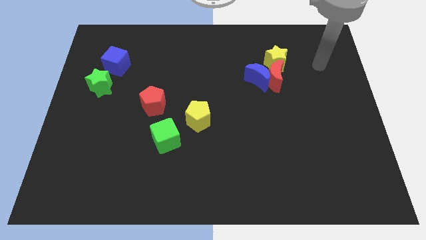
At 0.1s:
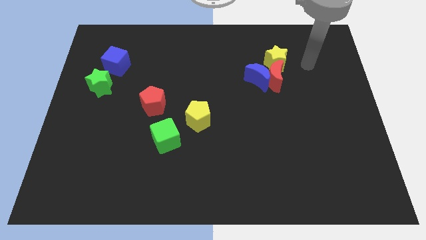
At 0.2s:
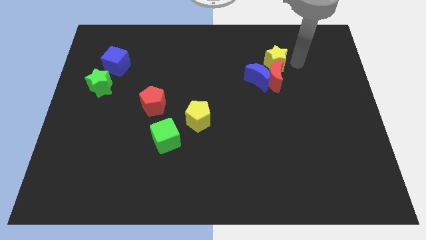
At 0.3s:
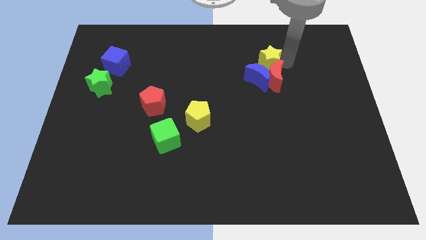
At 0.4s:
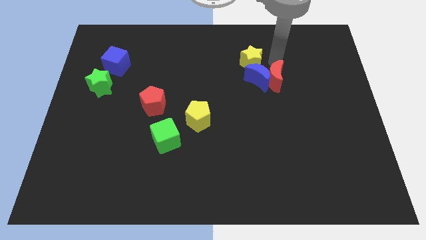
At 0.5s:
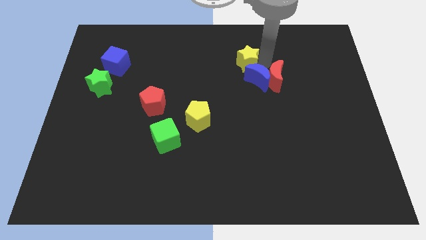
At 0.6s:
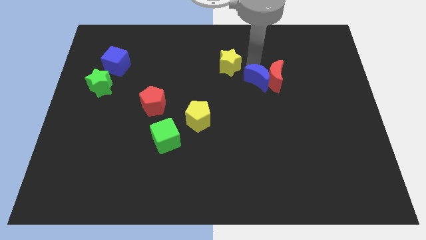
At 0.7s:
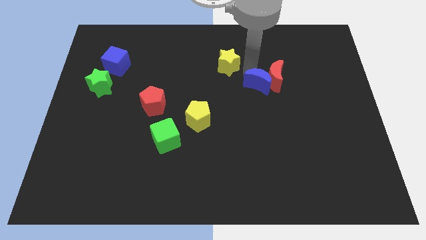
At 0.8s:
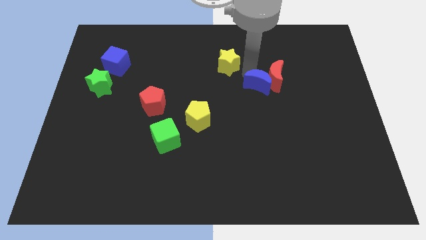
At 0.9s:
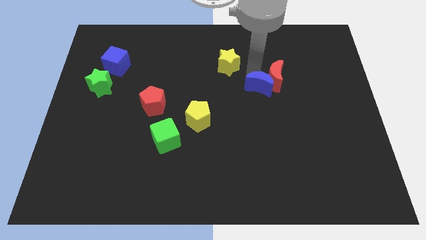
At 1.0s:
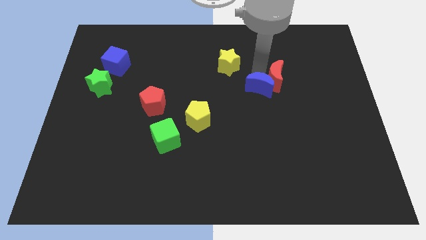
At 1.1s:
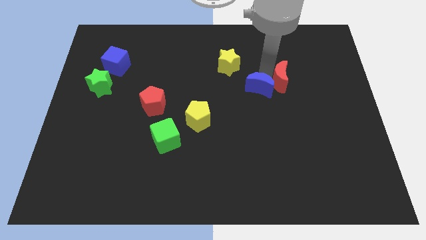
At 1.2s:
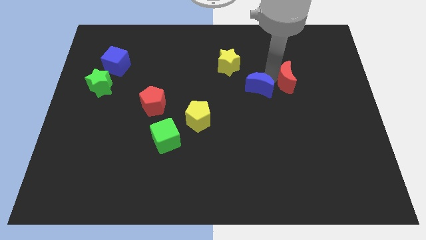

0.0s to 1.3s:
separate the red moon from the blue moon and yellow star

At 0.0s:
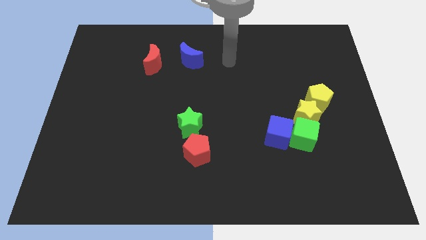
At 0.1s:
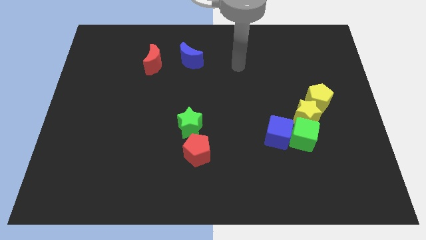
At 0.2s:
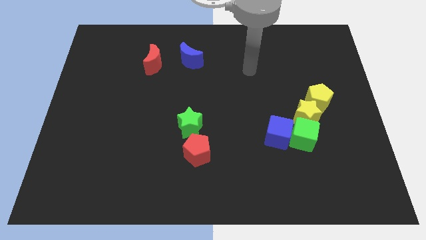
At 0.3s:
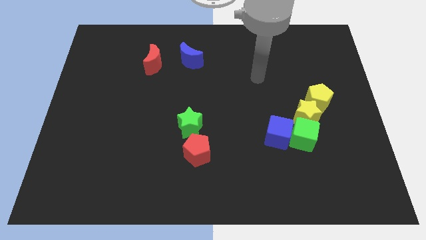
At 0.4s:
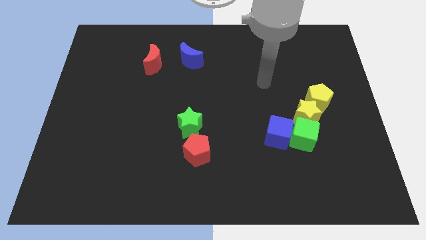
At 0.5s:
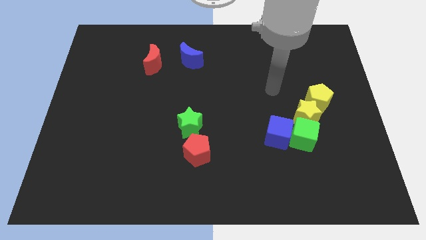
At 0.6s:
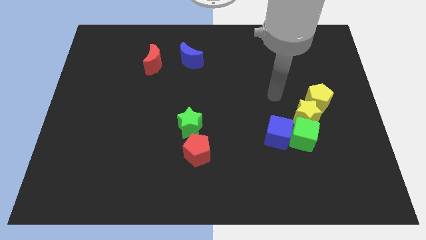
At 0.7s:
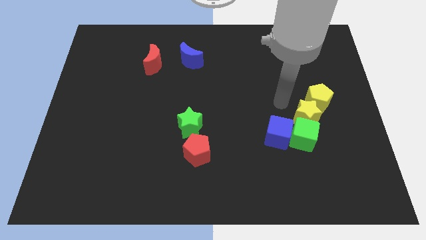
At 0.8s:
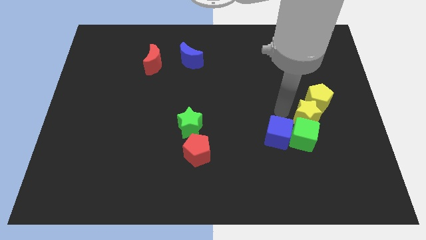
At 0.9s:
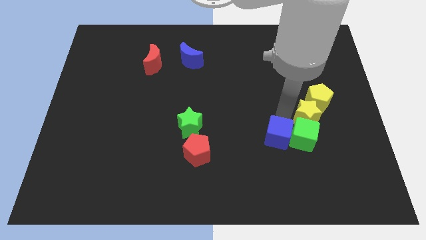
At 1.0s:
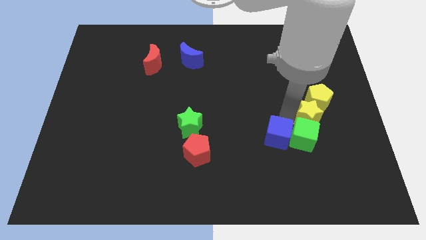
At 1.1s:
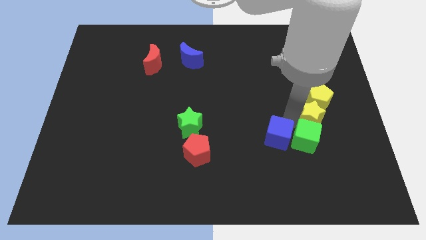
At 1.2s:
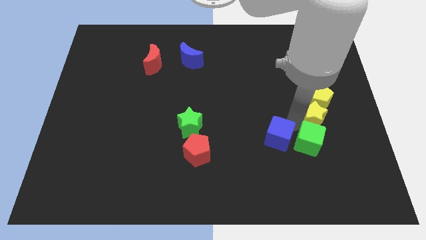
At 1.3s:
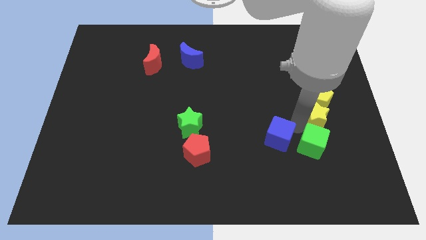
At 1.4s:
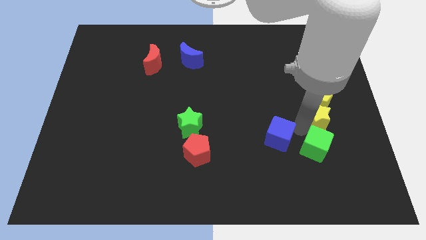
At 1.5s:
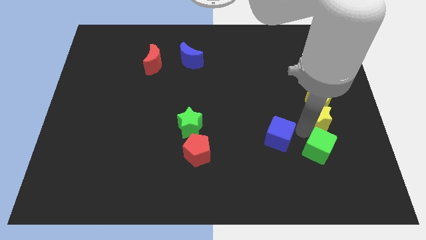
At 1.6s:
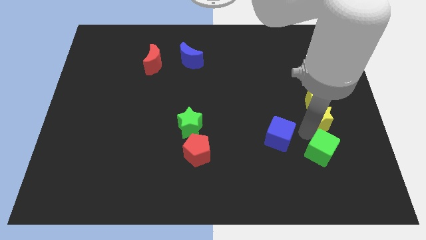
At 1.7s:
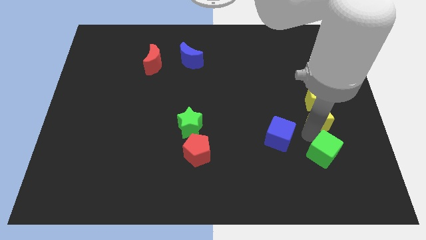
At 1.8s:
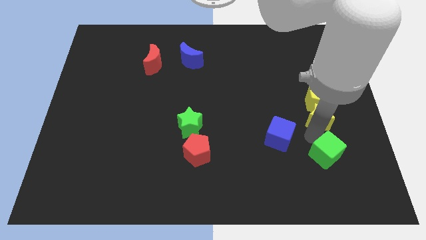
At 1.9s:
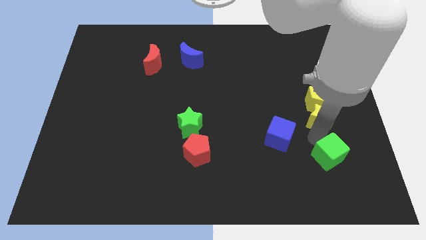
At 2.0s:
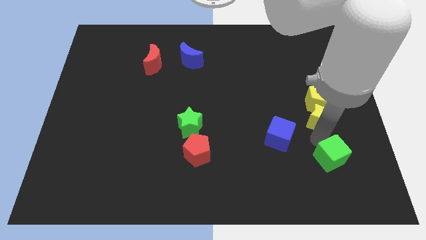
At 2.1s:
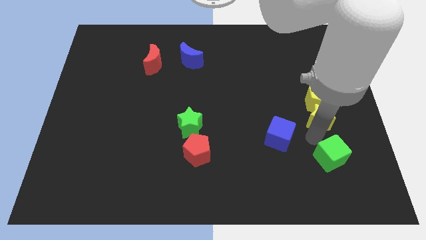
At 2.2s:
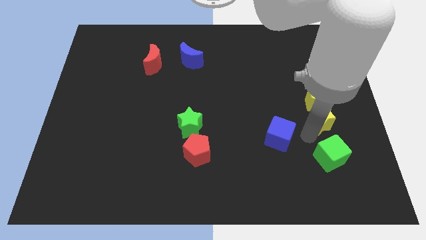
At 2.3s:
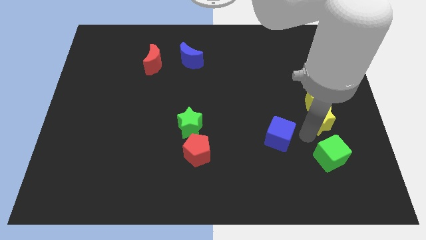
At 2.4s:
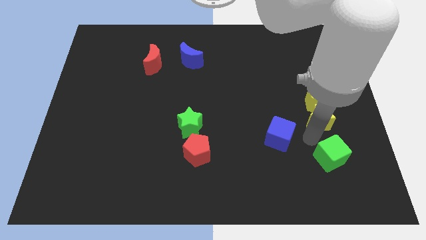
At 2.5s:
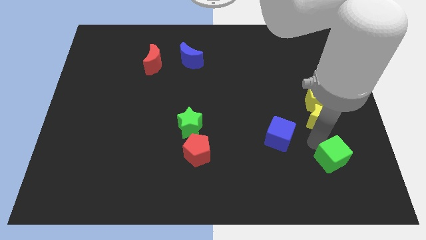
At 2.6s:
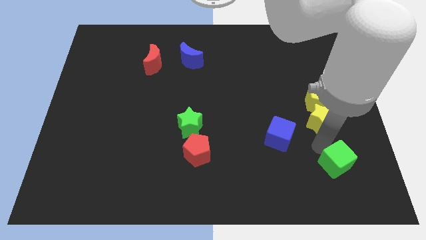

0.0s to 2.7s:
move the green cube away from the yellow star and blue cube

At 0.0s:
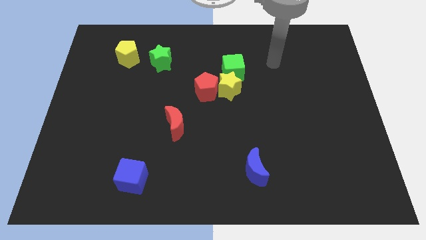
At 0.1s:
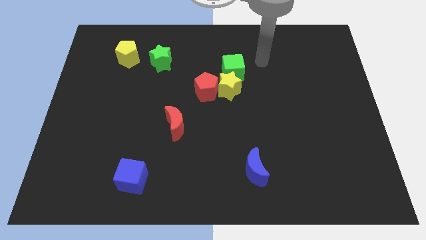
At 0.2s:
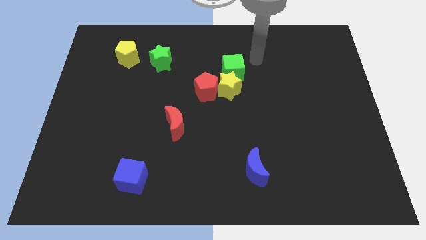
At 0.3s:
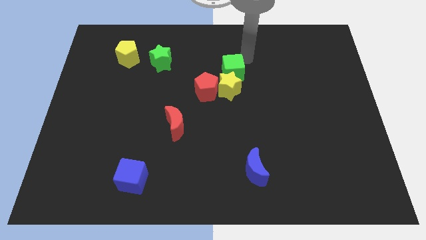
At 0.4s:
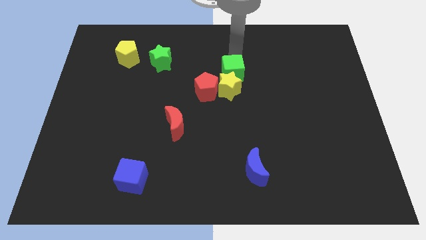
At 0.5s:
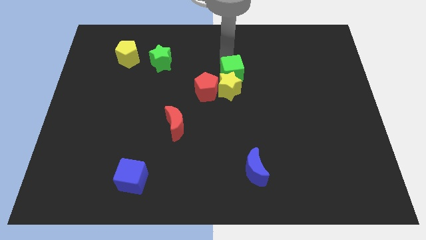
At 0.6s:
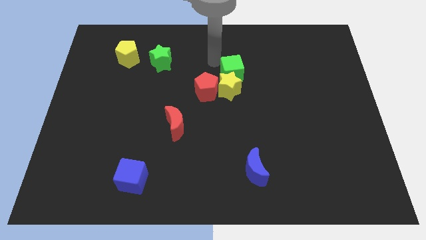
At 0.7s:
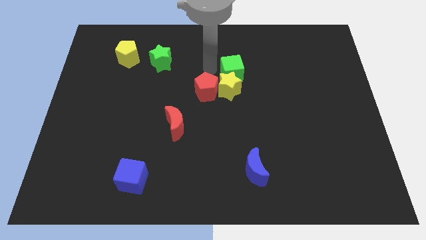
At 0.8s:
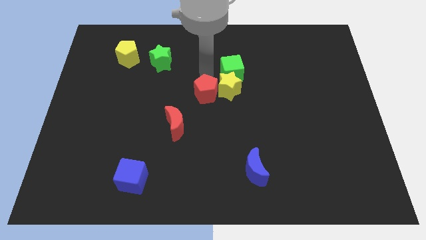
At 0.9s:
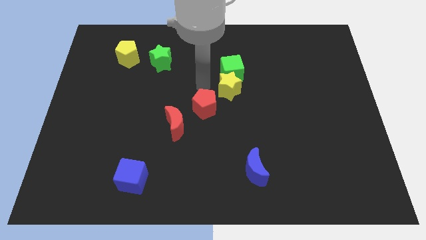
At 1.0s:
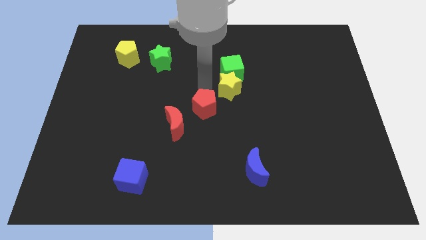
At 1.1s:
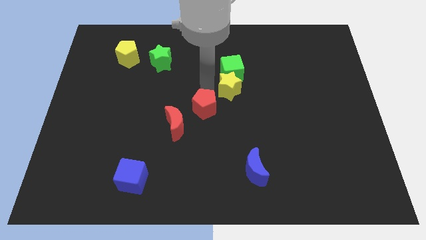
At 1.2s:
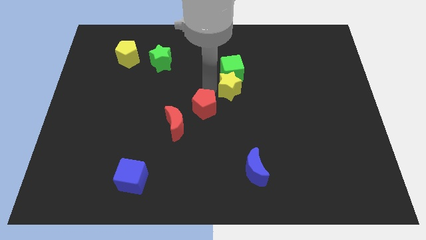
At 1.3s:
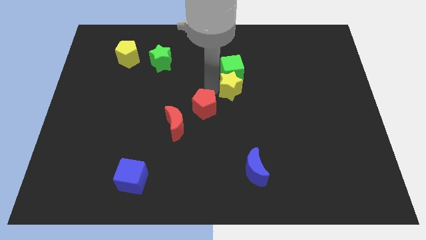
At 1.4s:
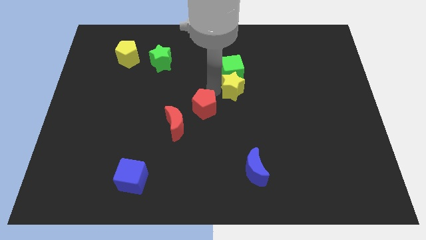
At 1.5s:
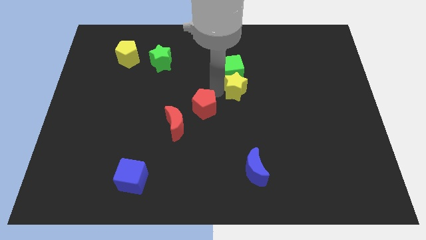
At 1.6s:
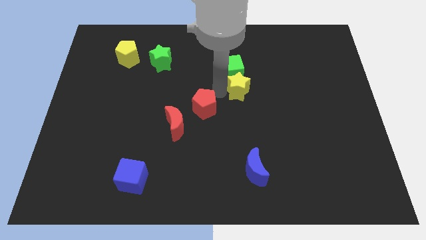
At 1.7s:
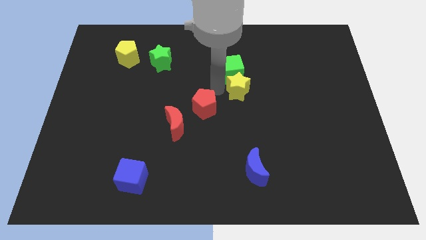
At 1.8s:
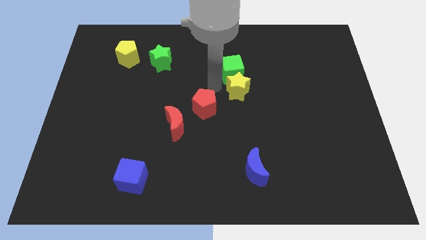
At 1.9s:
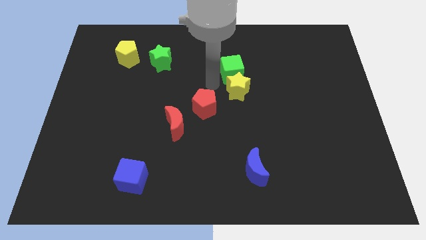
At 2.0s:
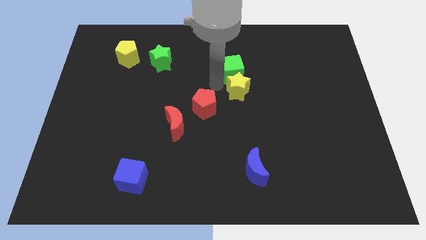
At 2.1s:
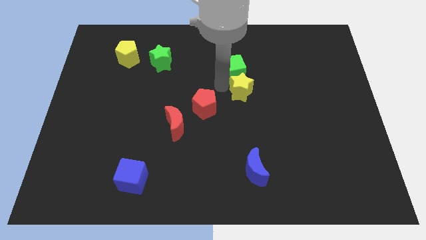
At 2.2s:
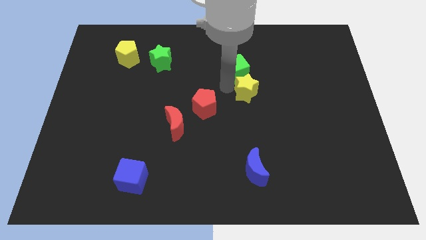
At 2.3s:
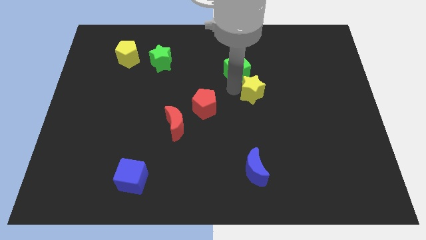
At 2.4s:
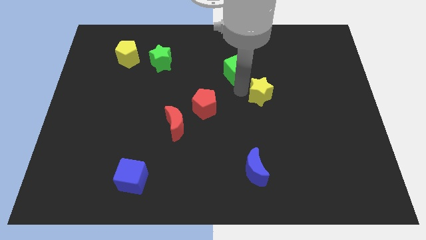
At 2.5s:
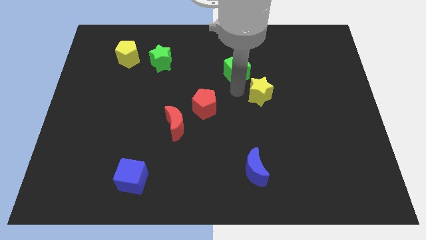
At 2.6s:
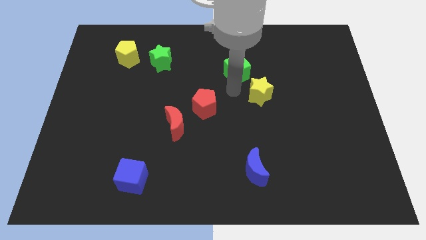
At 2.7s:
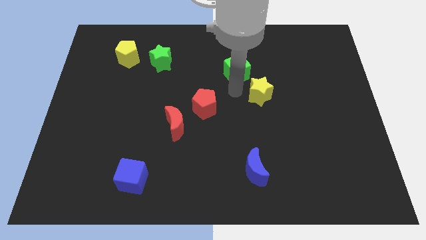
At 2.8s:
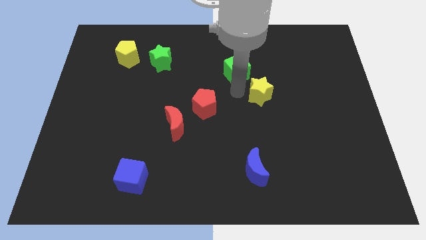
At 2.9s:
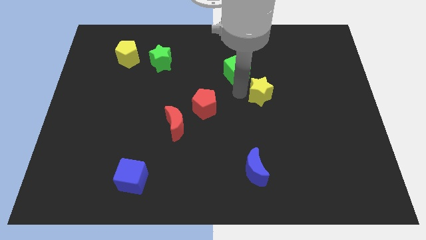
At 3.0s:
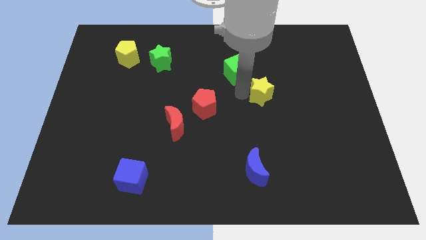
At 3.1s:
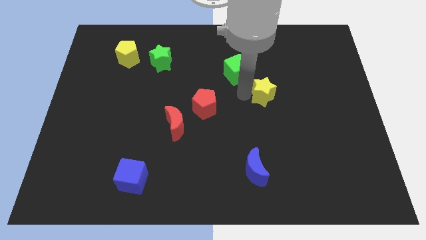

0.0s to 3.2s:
separate the yellow star from the red pentagon and green cube

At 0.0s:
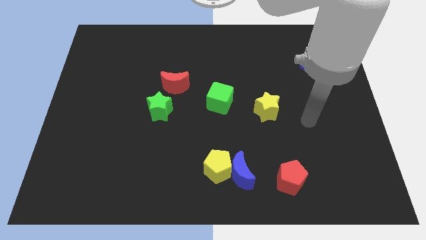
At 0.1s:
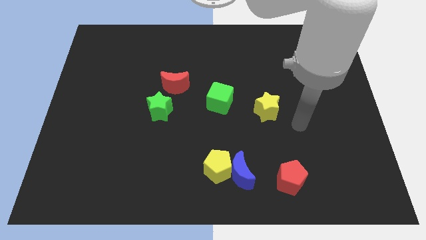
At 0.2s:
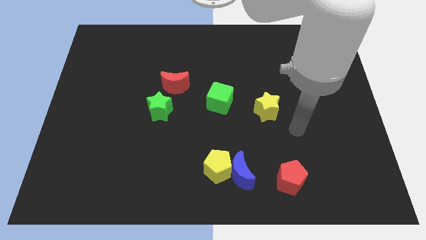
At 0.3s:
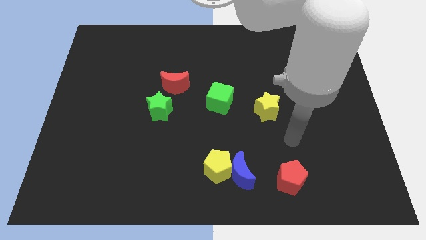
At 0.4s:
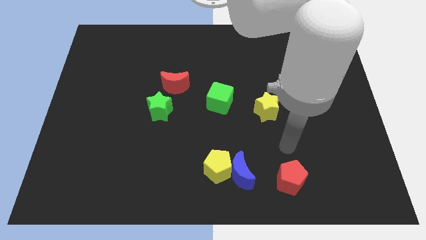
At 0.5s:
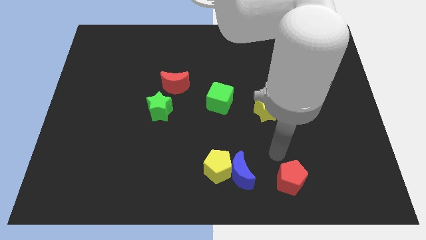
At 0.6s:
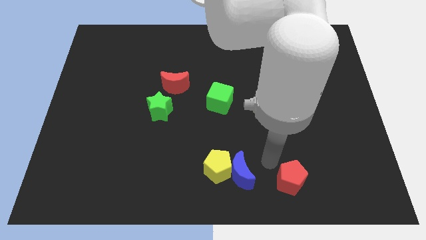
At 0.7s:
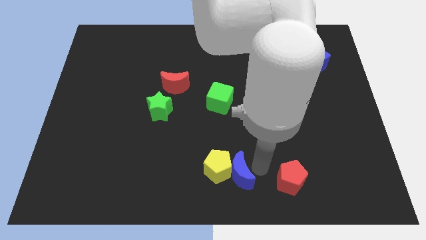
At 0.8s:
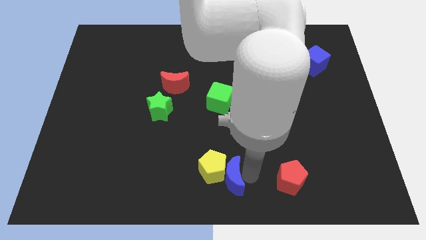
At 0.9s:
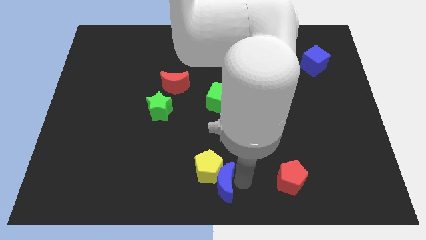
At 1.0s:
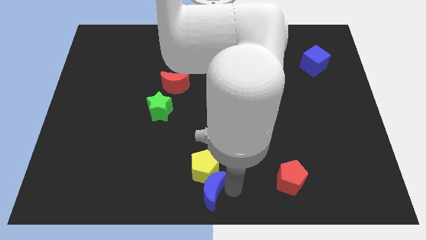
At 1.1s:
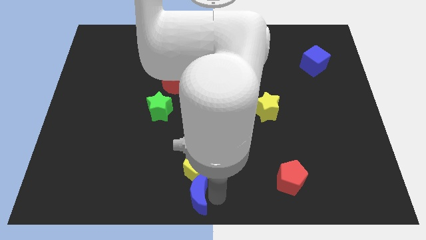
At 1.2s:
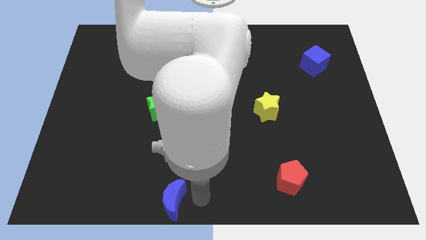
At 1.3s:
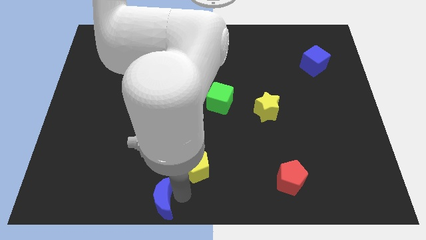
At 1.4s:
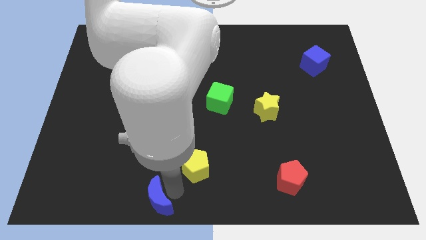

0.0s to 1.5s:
move the yellow pentagon away from the blue moon

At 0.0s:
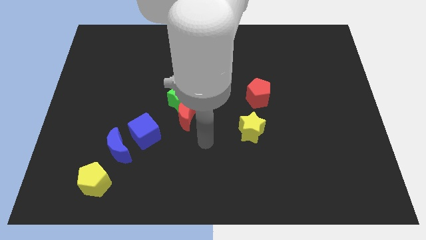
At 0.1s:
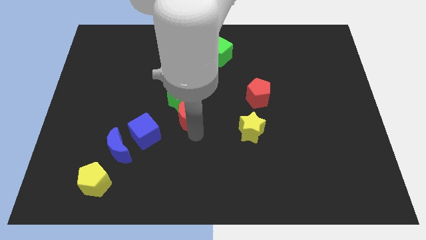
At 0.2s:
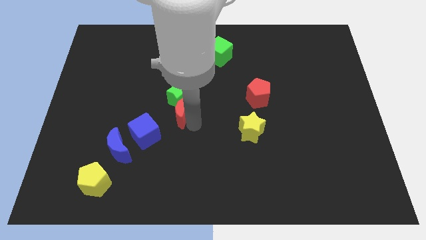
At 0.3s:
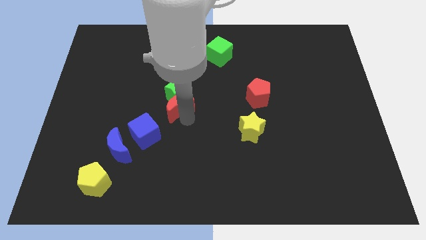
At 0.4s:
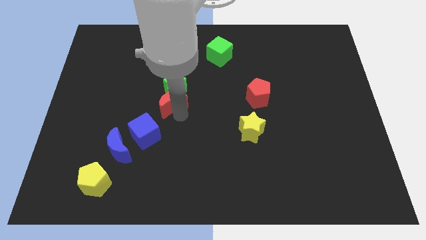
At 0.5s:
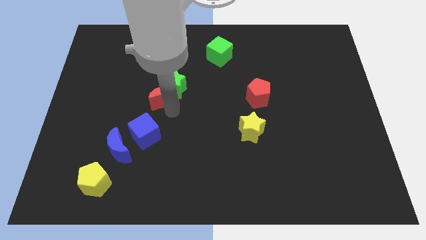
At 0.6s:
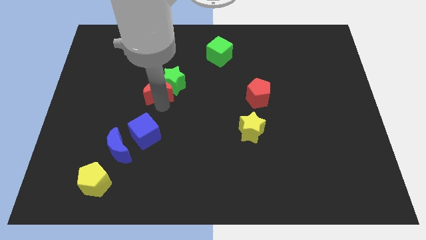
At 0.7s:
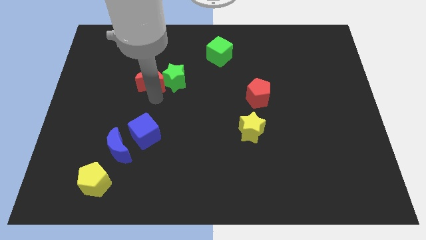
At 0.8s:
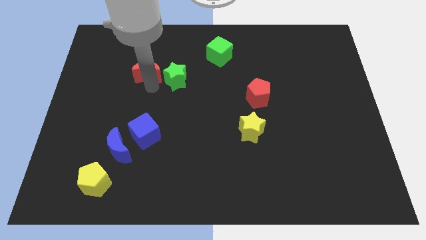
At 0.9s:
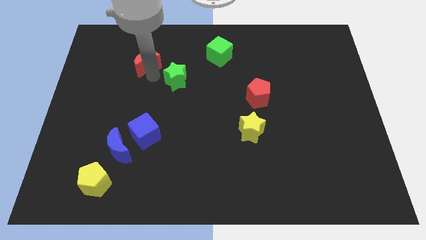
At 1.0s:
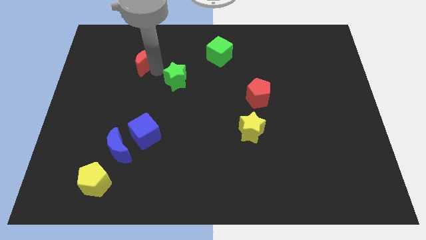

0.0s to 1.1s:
pull the green star apart from the red moon
